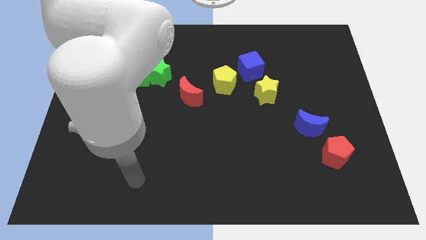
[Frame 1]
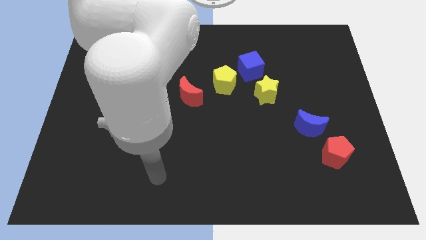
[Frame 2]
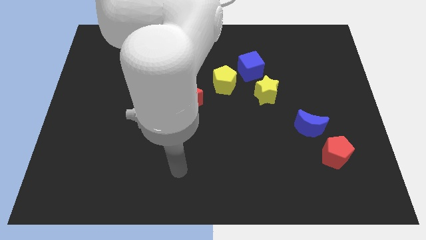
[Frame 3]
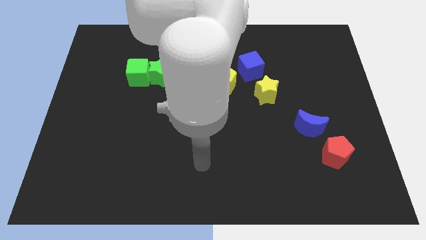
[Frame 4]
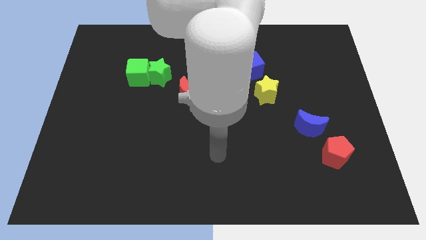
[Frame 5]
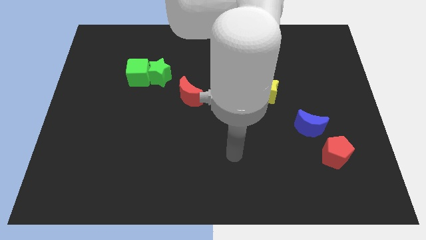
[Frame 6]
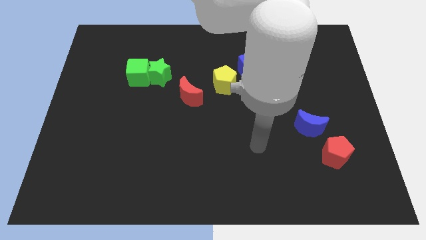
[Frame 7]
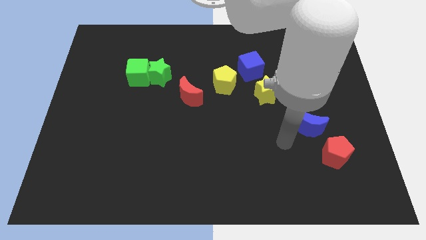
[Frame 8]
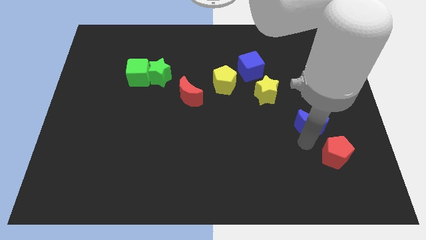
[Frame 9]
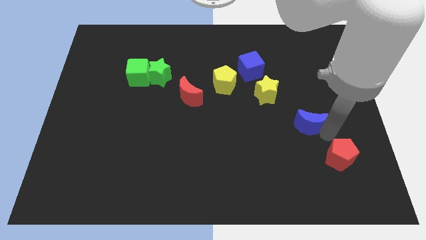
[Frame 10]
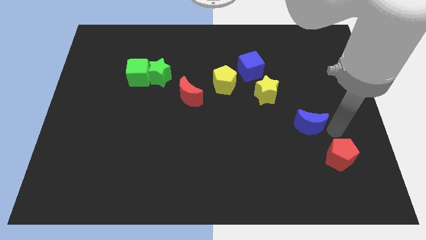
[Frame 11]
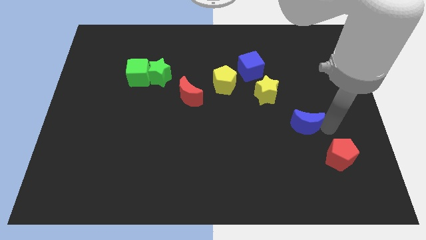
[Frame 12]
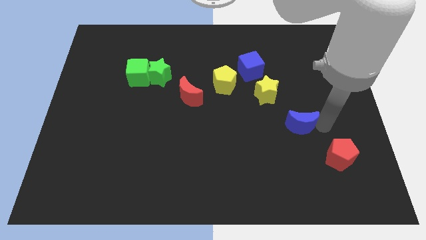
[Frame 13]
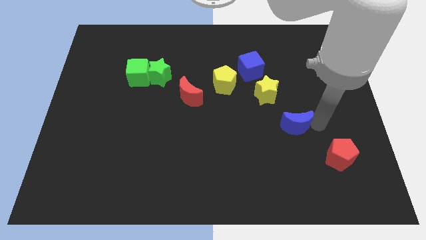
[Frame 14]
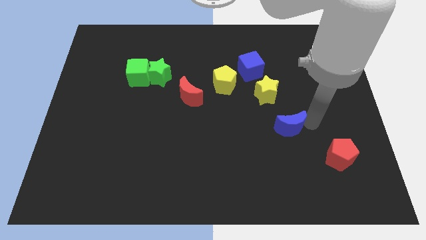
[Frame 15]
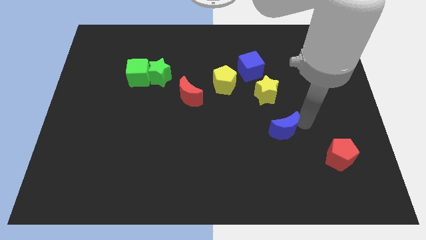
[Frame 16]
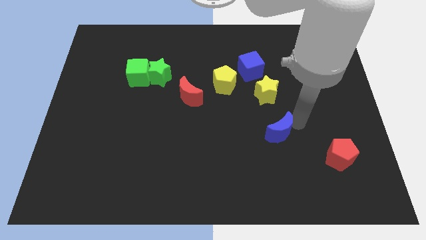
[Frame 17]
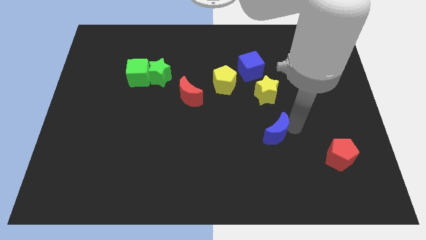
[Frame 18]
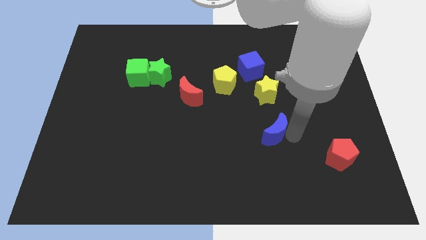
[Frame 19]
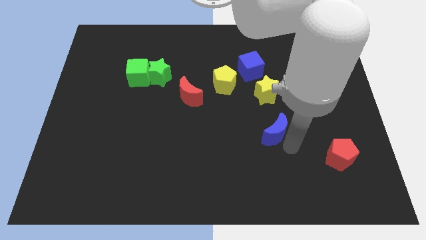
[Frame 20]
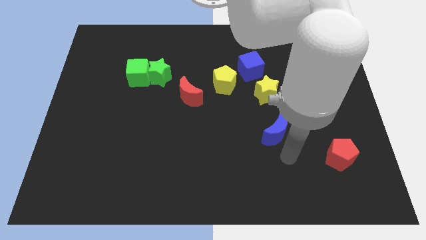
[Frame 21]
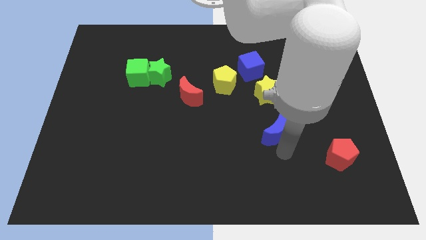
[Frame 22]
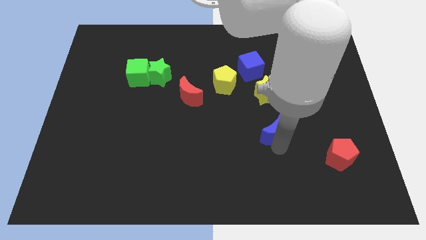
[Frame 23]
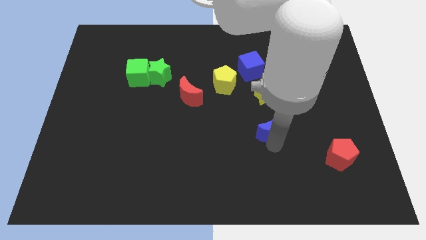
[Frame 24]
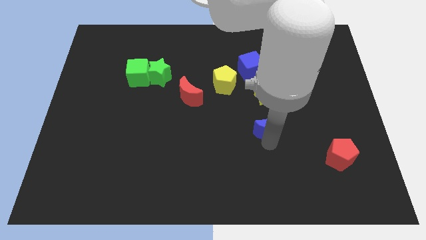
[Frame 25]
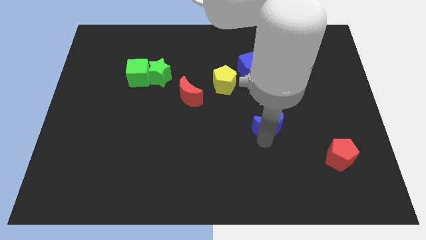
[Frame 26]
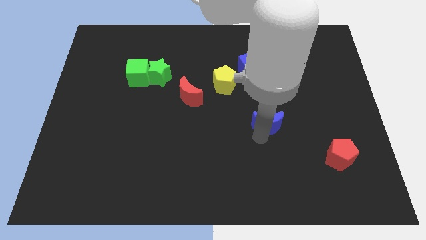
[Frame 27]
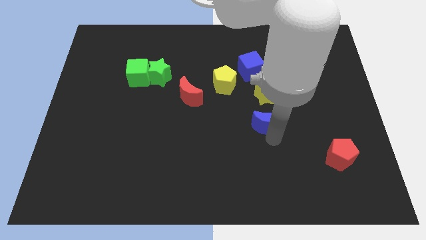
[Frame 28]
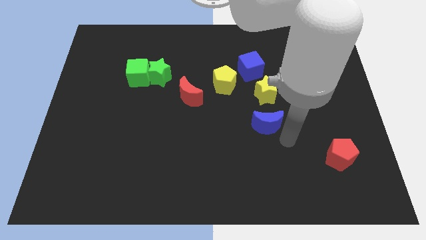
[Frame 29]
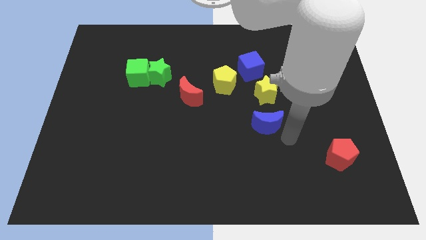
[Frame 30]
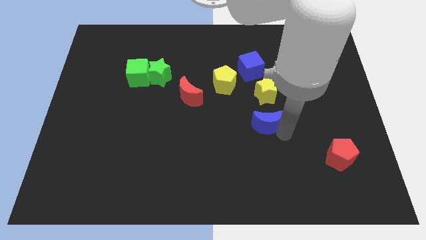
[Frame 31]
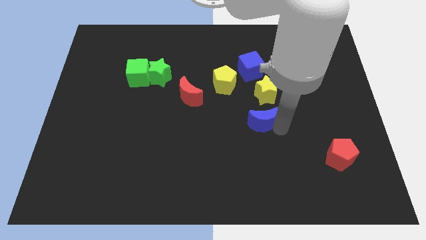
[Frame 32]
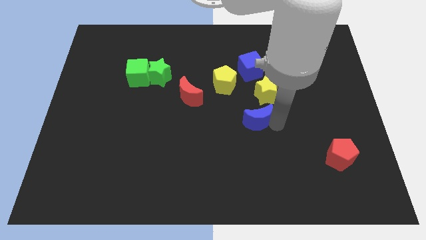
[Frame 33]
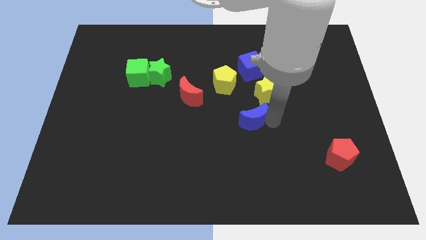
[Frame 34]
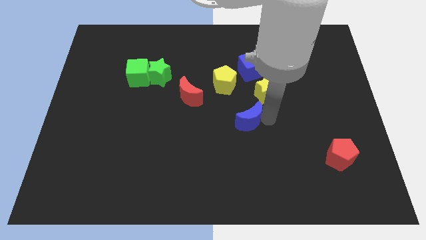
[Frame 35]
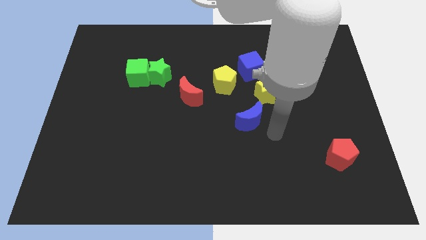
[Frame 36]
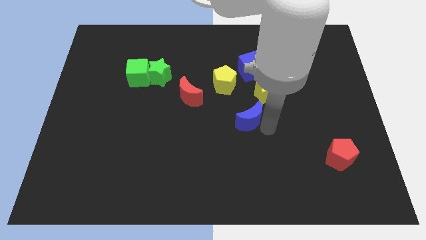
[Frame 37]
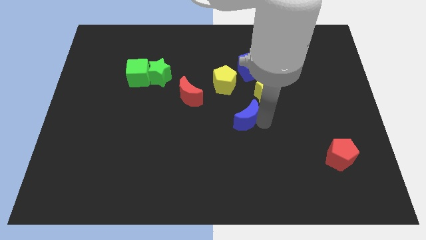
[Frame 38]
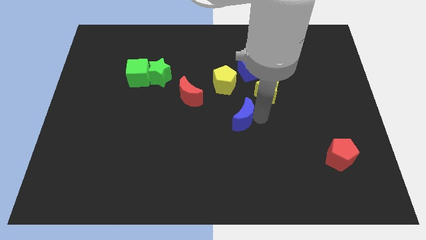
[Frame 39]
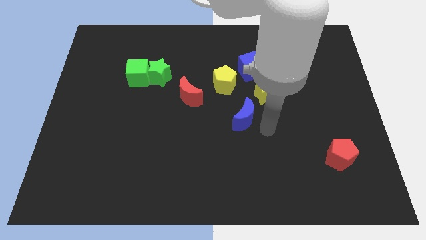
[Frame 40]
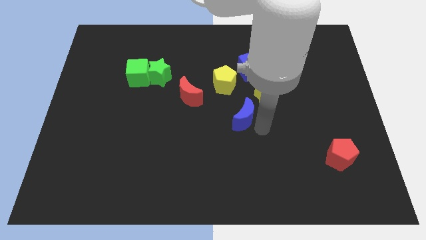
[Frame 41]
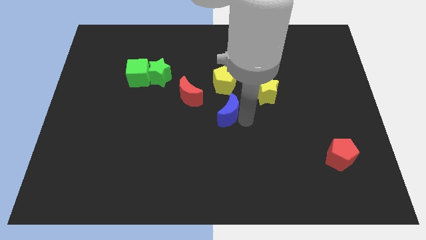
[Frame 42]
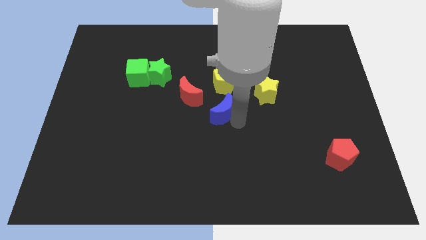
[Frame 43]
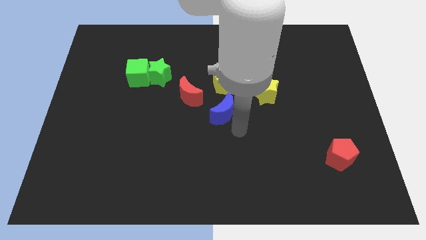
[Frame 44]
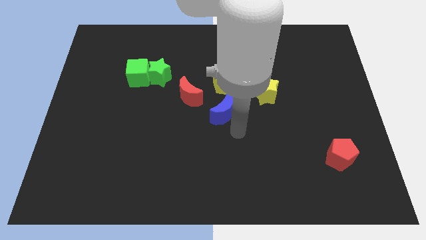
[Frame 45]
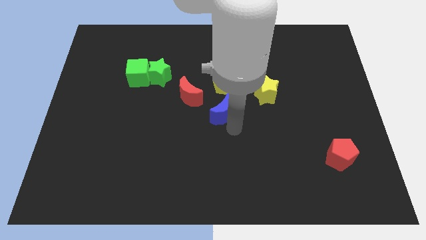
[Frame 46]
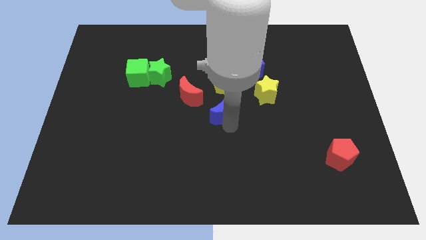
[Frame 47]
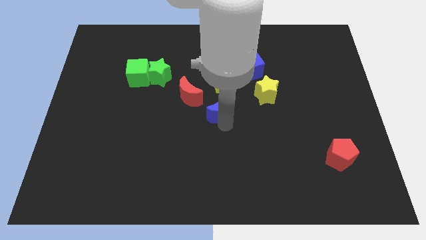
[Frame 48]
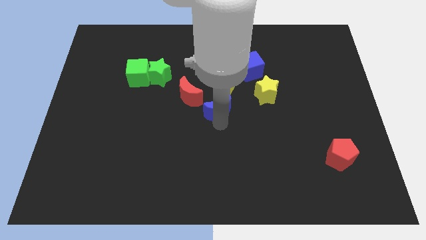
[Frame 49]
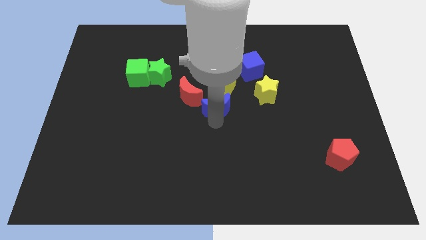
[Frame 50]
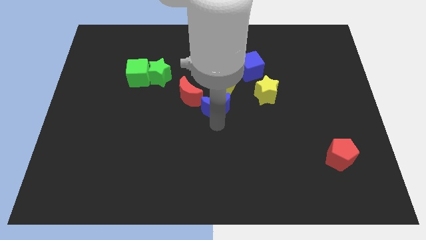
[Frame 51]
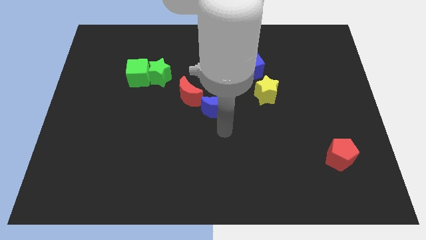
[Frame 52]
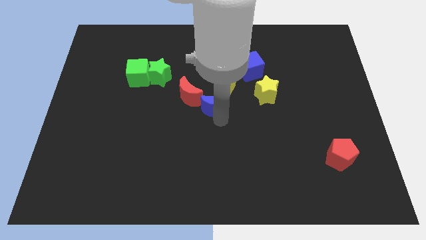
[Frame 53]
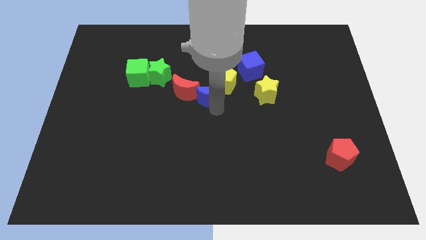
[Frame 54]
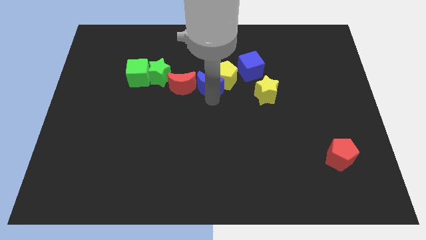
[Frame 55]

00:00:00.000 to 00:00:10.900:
push the blue moon just right of the green star

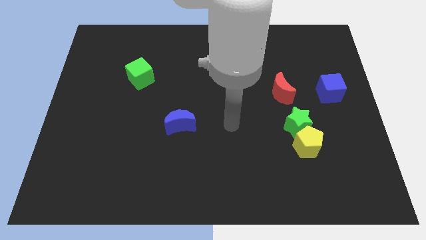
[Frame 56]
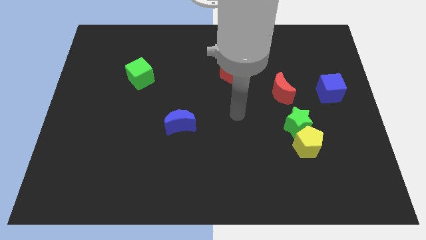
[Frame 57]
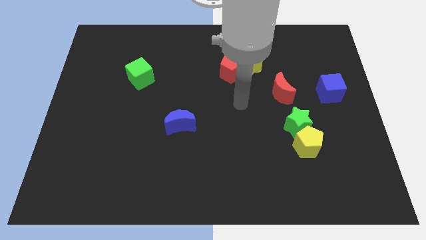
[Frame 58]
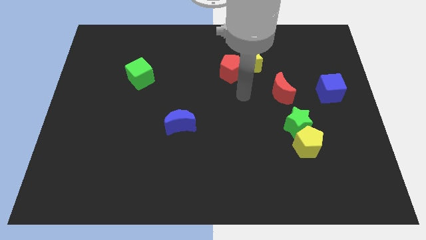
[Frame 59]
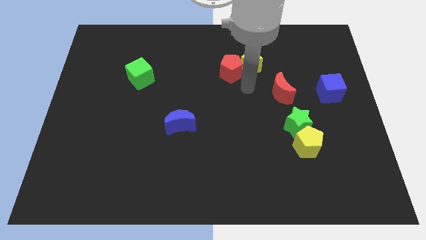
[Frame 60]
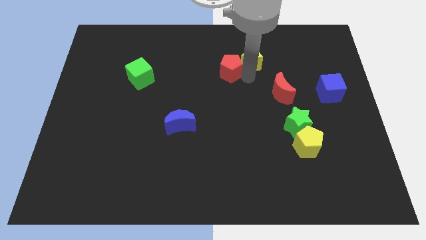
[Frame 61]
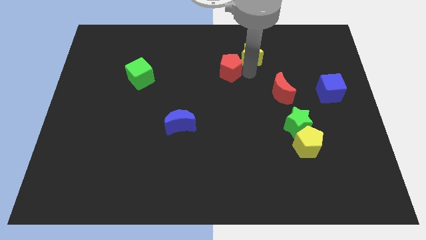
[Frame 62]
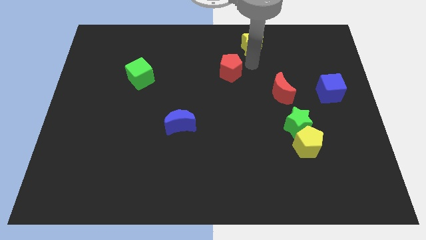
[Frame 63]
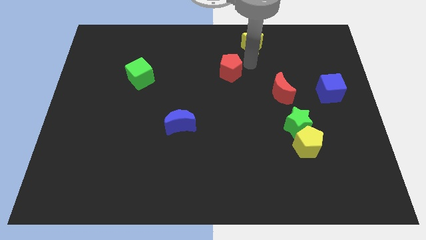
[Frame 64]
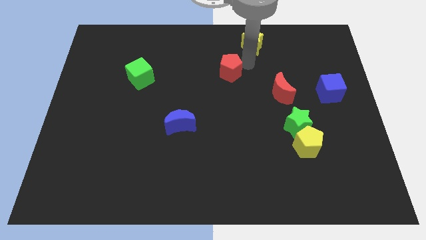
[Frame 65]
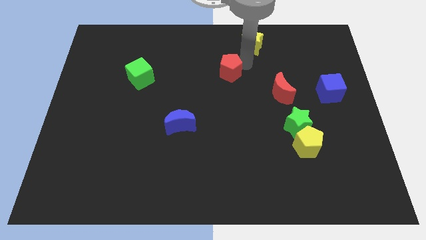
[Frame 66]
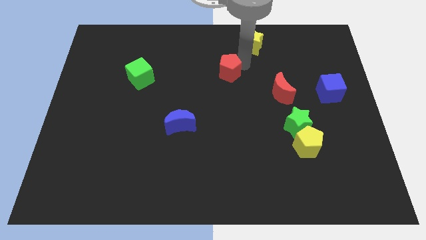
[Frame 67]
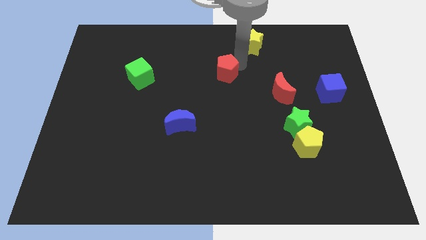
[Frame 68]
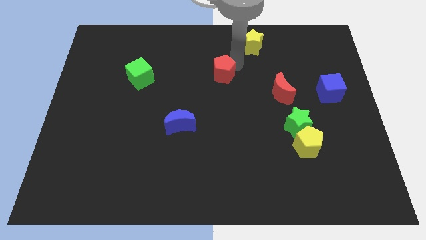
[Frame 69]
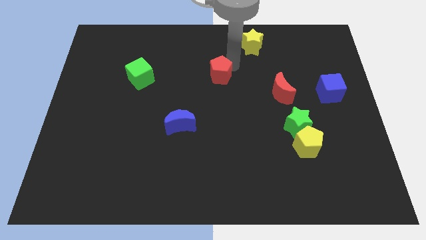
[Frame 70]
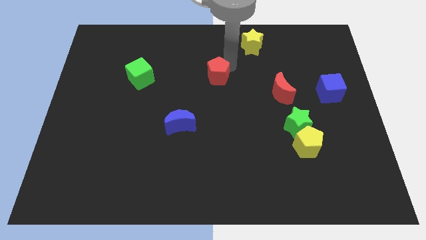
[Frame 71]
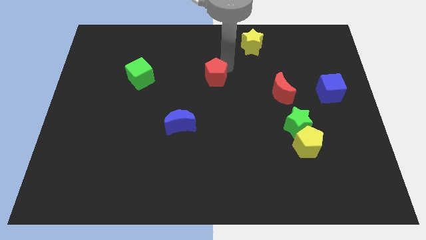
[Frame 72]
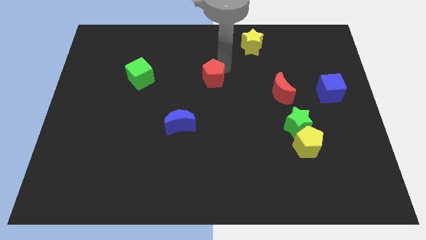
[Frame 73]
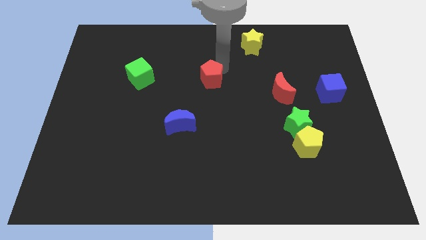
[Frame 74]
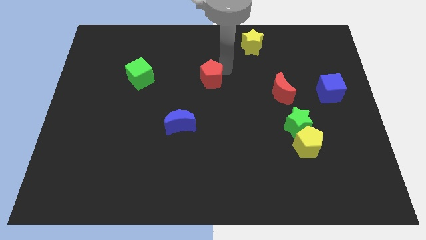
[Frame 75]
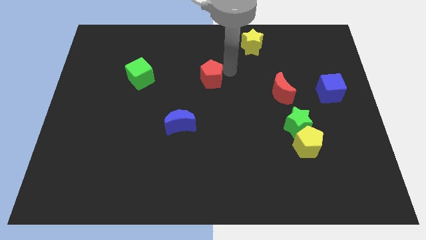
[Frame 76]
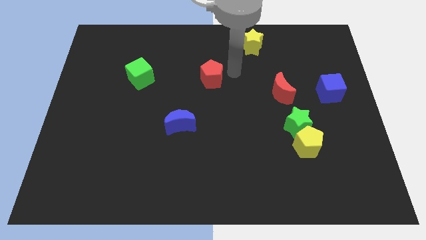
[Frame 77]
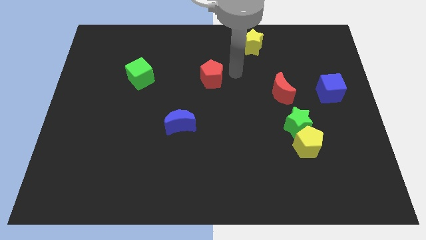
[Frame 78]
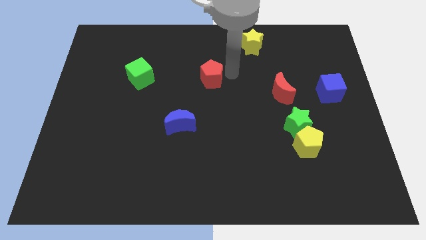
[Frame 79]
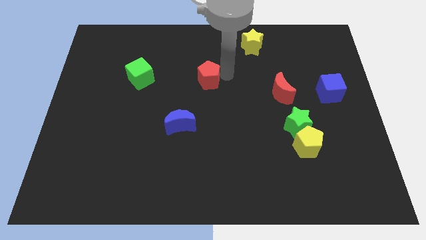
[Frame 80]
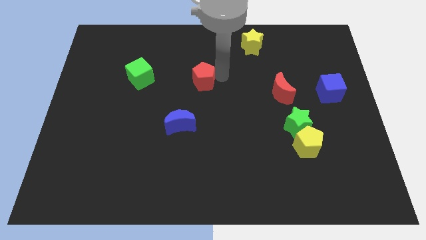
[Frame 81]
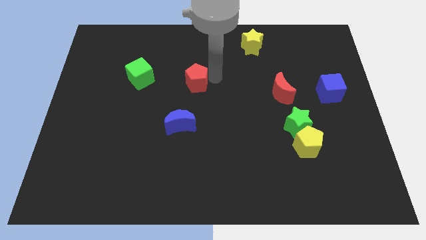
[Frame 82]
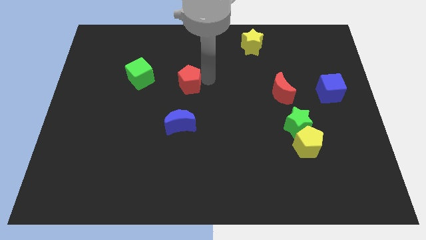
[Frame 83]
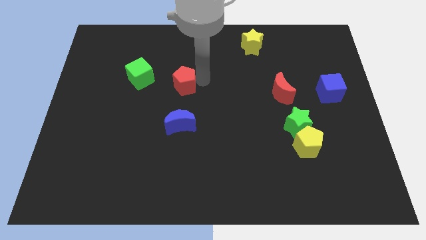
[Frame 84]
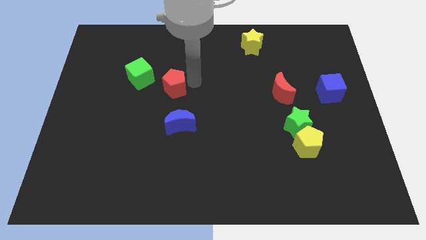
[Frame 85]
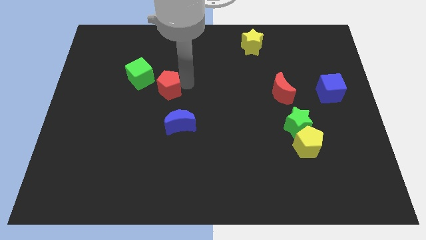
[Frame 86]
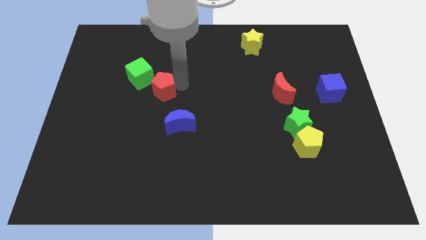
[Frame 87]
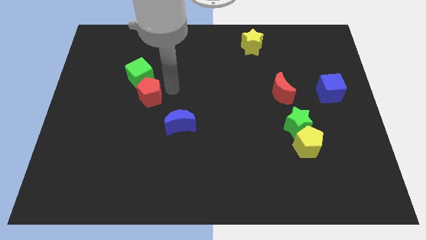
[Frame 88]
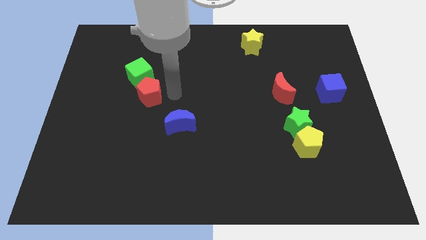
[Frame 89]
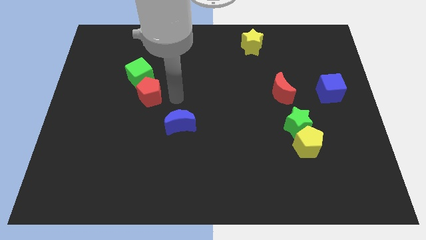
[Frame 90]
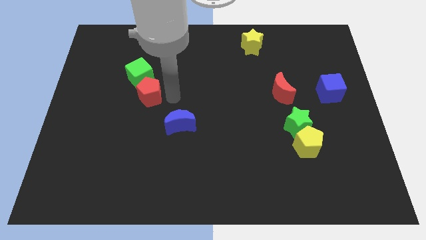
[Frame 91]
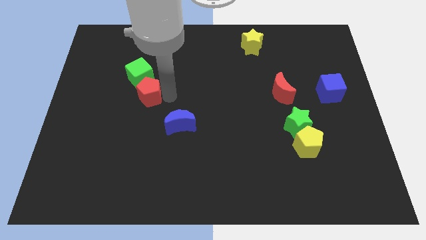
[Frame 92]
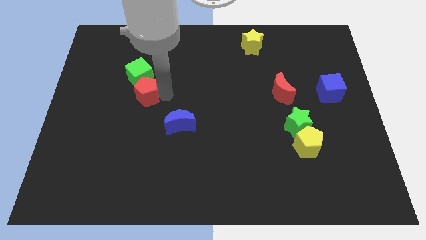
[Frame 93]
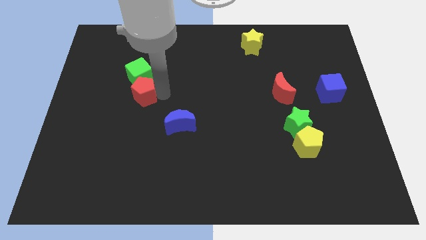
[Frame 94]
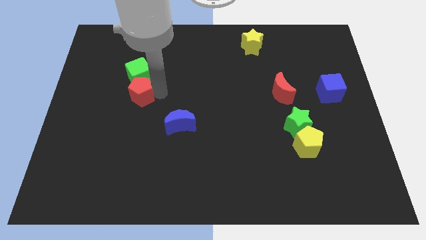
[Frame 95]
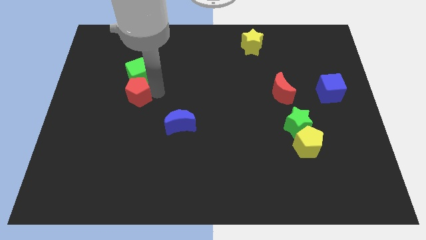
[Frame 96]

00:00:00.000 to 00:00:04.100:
move the red pentagon to the bottom left side of the green cube
